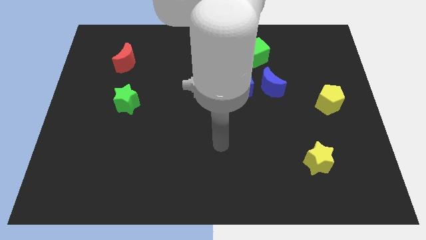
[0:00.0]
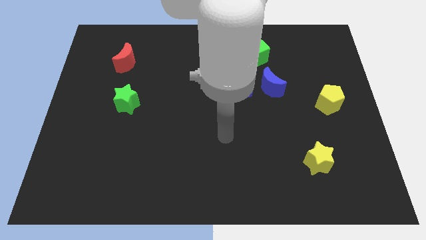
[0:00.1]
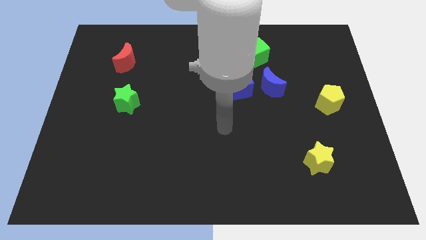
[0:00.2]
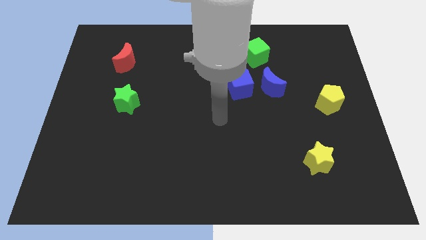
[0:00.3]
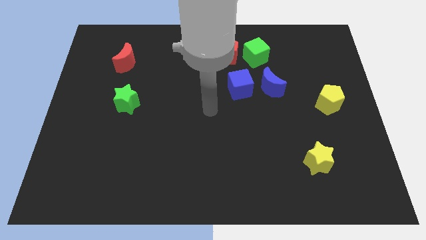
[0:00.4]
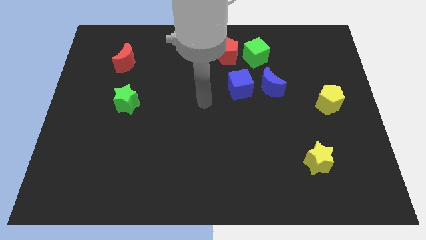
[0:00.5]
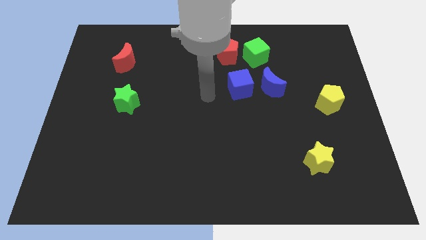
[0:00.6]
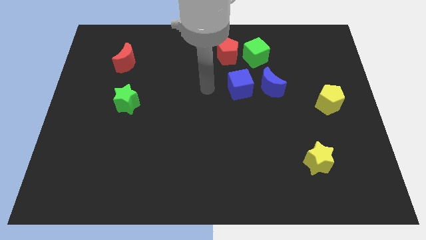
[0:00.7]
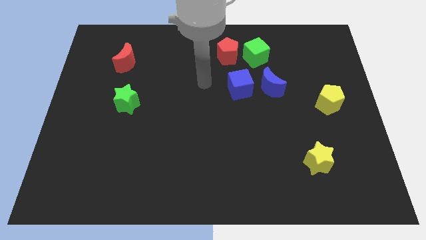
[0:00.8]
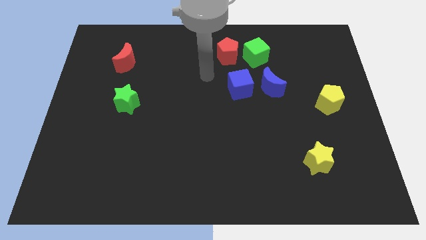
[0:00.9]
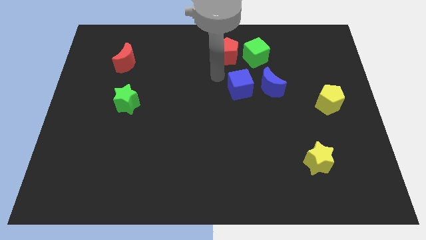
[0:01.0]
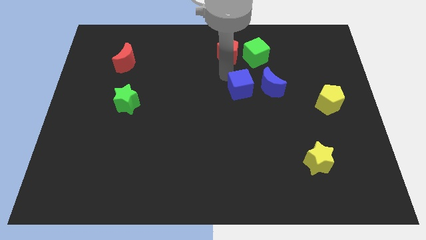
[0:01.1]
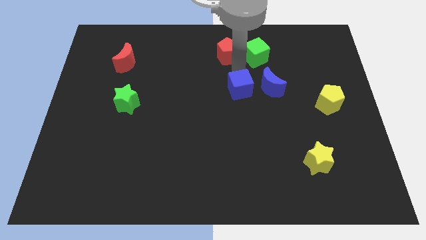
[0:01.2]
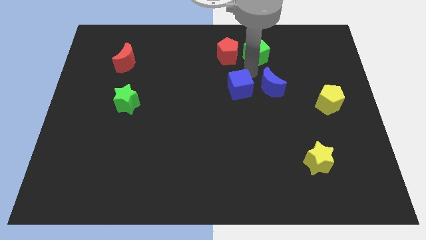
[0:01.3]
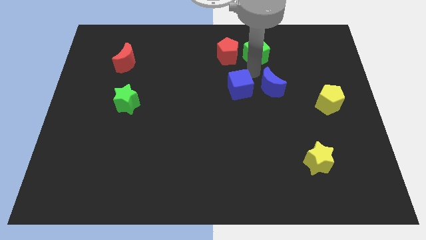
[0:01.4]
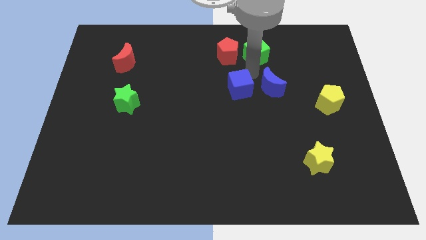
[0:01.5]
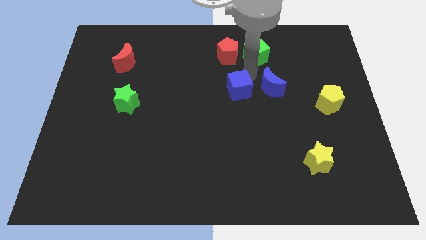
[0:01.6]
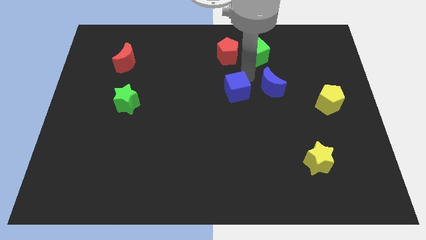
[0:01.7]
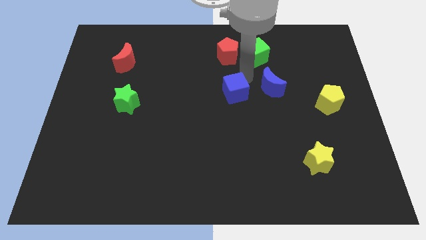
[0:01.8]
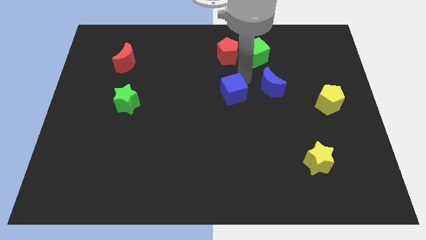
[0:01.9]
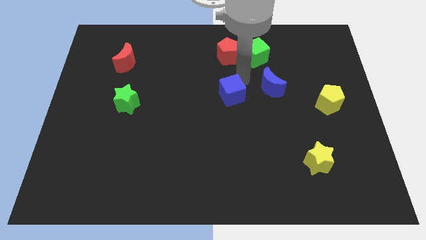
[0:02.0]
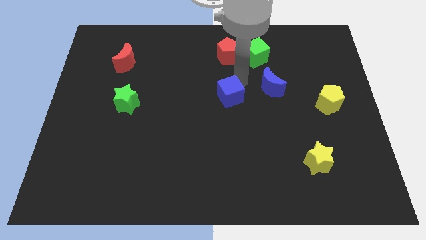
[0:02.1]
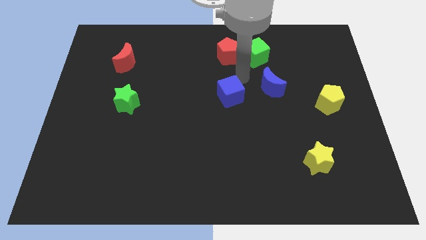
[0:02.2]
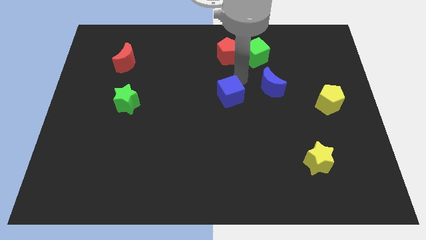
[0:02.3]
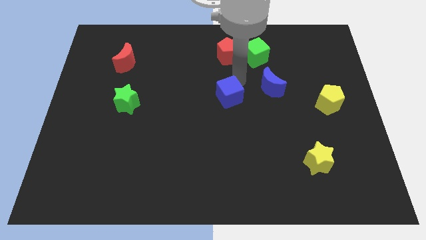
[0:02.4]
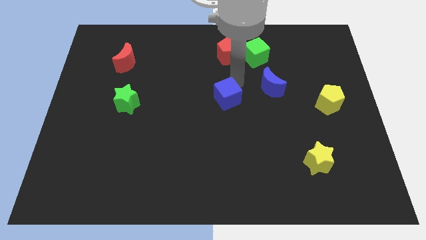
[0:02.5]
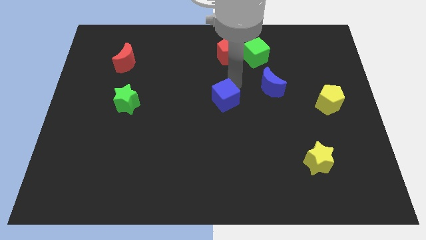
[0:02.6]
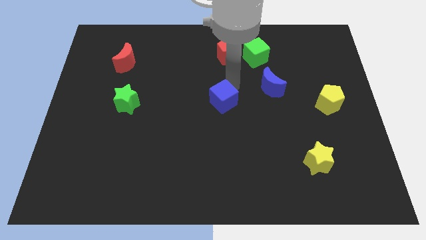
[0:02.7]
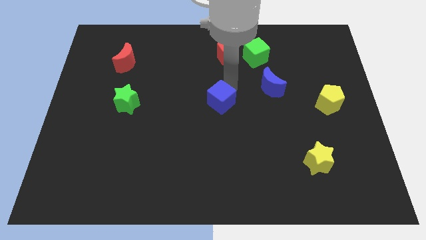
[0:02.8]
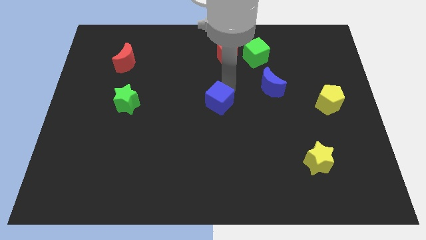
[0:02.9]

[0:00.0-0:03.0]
move the blue cube a little down and to the left

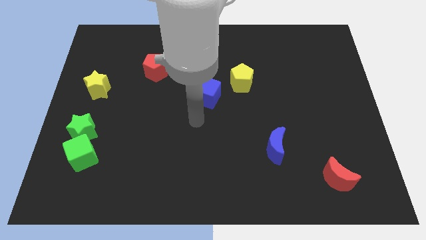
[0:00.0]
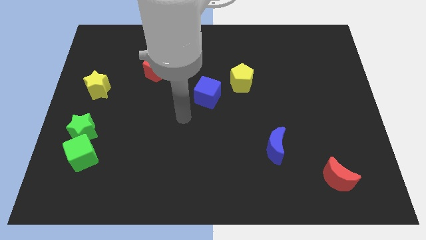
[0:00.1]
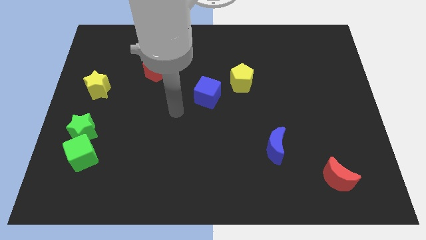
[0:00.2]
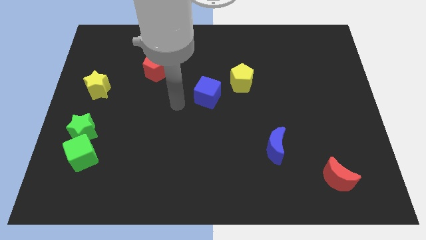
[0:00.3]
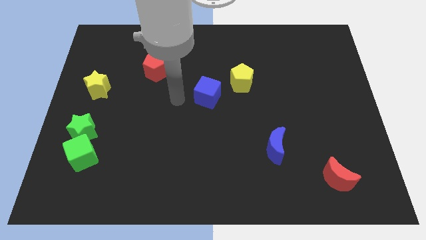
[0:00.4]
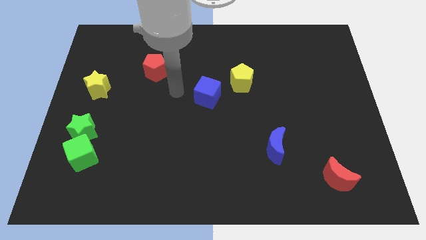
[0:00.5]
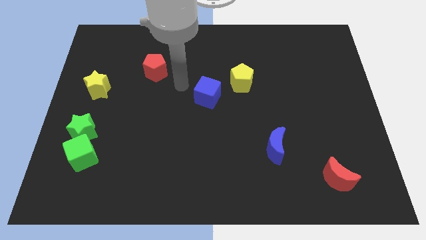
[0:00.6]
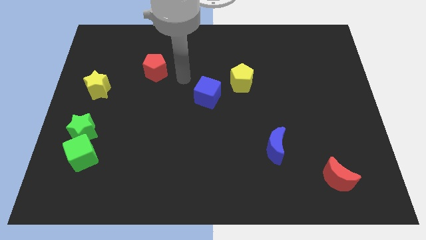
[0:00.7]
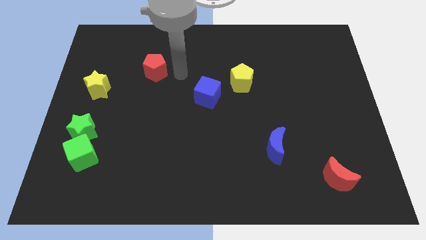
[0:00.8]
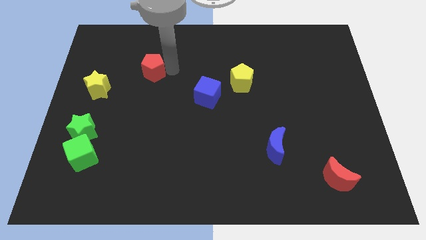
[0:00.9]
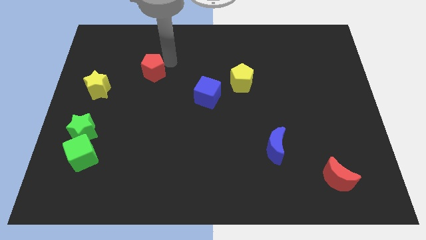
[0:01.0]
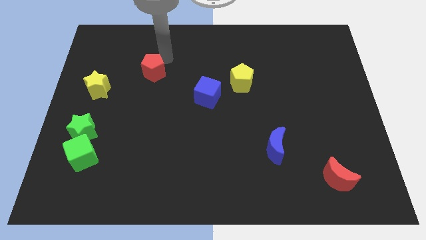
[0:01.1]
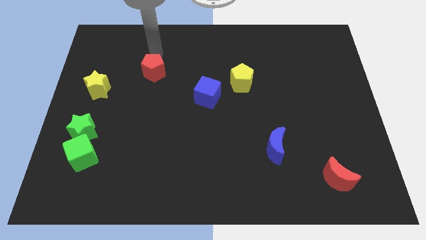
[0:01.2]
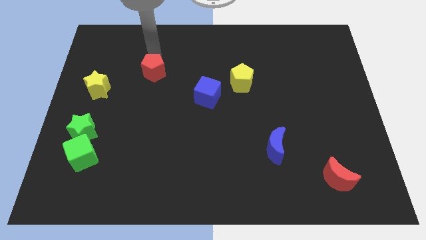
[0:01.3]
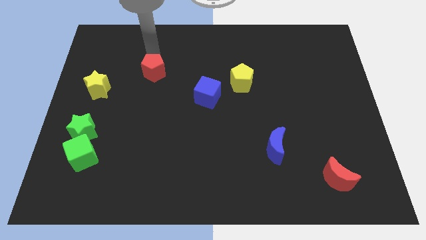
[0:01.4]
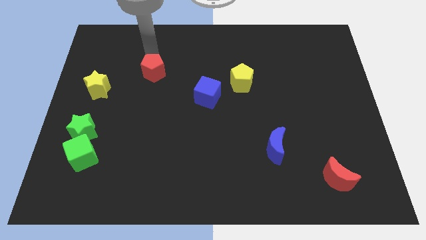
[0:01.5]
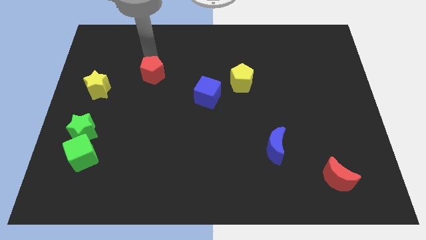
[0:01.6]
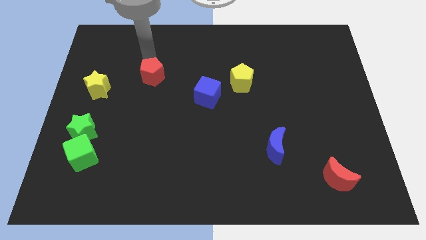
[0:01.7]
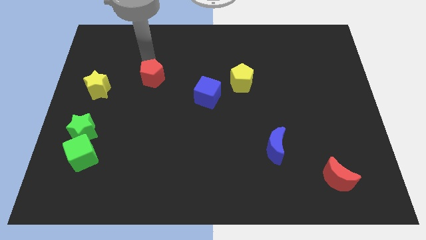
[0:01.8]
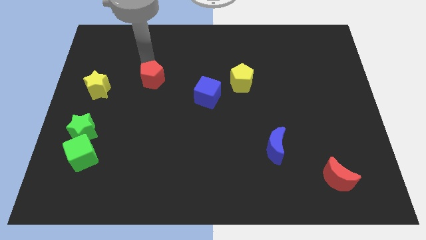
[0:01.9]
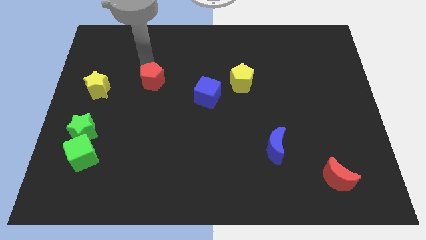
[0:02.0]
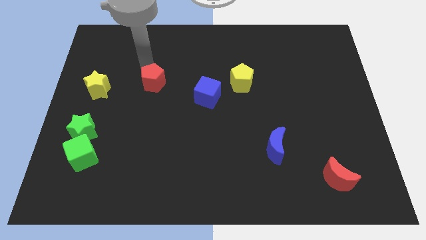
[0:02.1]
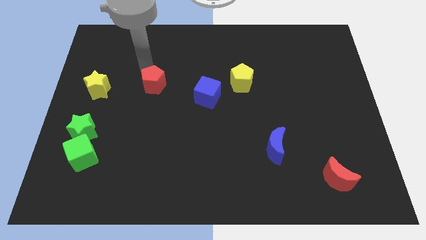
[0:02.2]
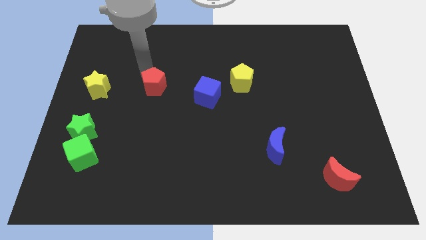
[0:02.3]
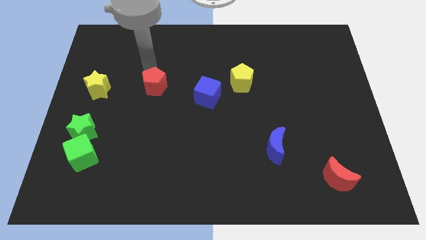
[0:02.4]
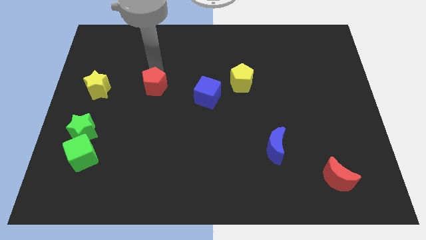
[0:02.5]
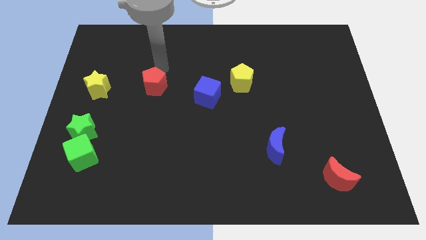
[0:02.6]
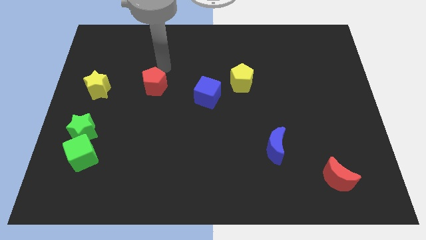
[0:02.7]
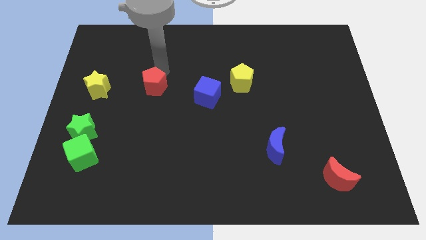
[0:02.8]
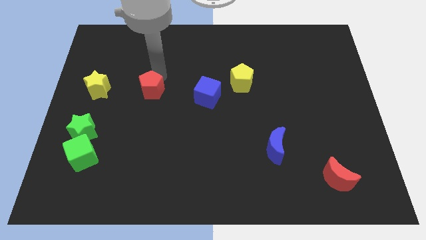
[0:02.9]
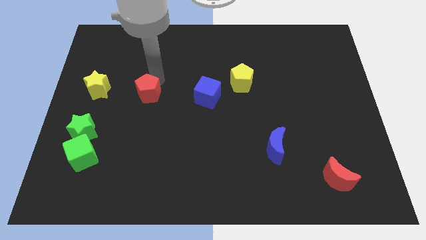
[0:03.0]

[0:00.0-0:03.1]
move the red pentagon down a bit

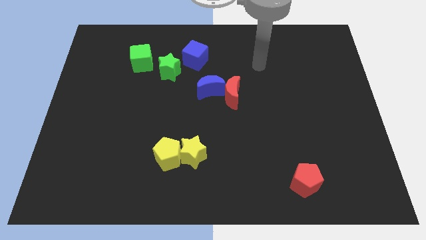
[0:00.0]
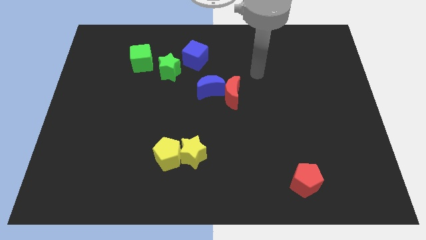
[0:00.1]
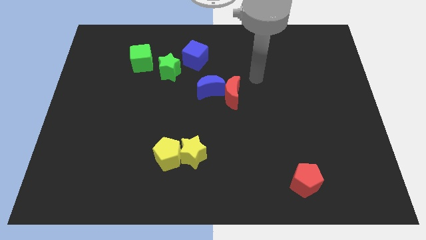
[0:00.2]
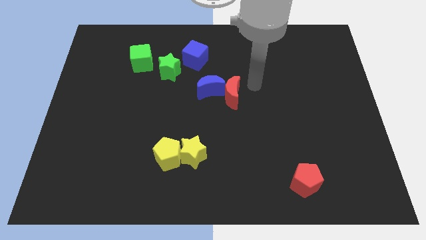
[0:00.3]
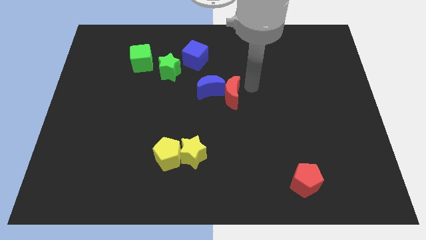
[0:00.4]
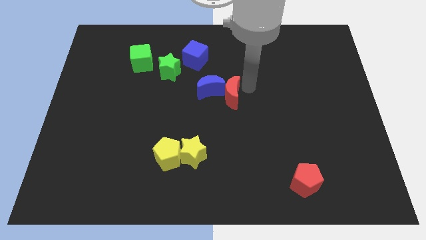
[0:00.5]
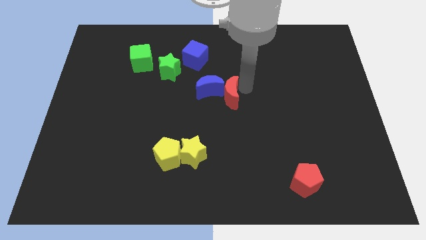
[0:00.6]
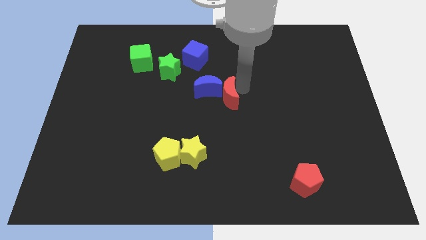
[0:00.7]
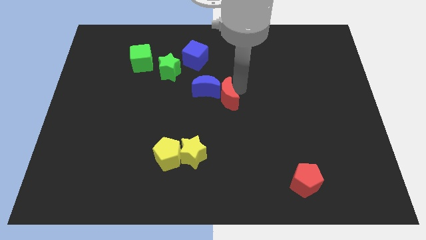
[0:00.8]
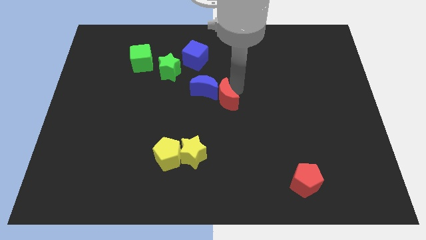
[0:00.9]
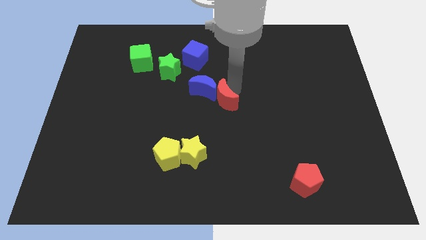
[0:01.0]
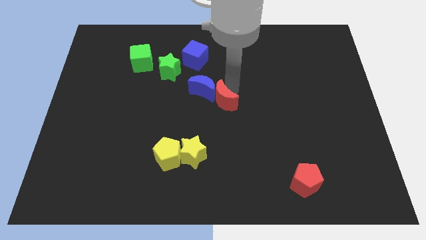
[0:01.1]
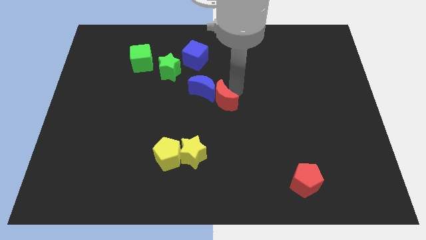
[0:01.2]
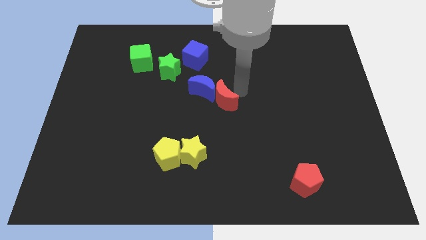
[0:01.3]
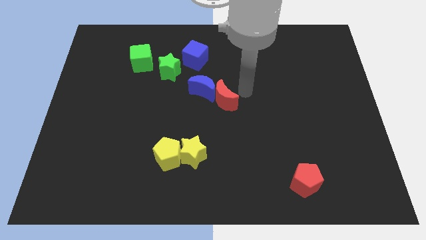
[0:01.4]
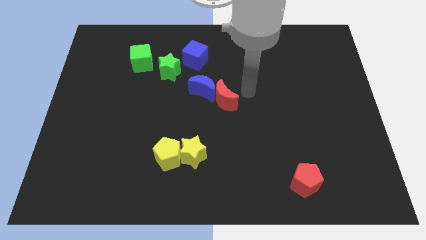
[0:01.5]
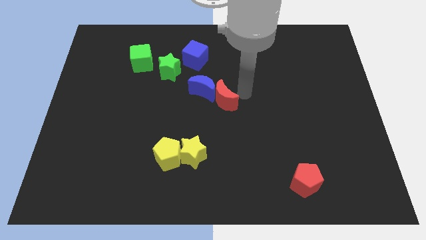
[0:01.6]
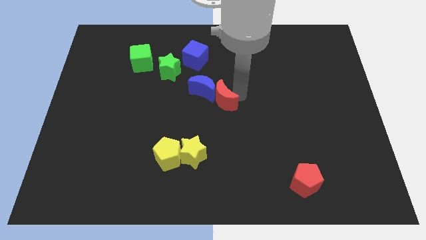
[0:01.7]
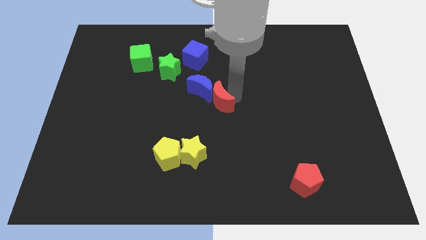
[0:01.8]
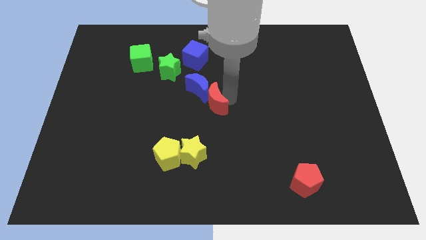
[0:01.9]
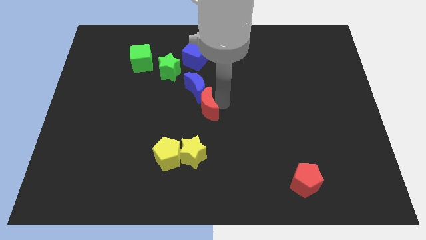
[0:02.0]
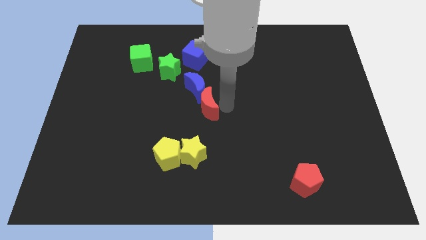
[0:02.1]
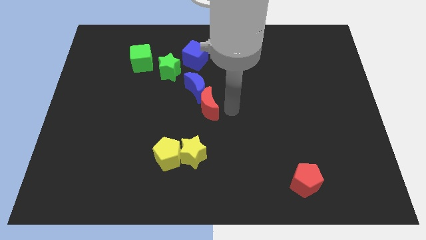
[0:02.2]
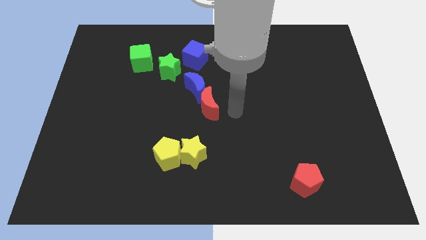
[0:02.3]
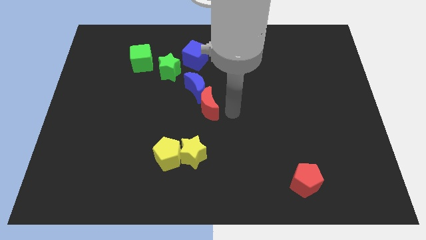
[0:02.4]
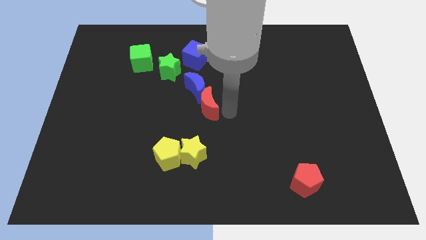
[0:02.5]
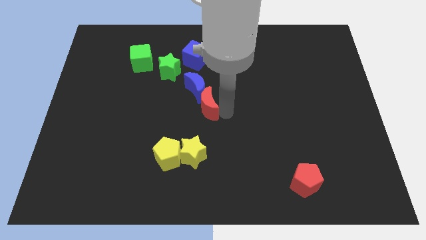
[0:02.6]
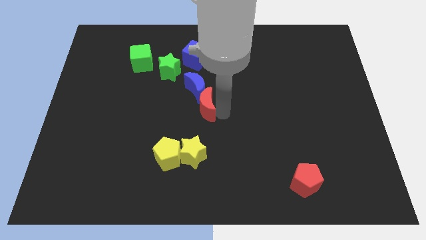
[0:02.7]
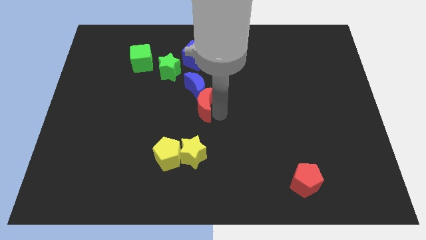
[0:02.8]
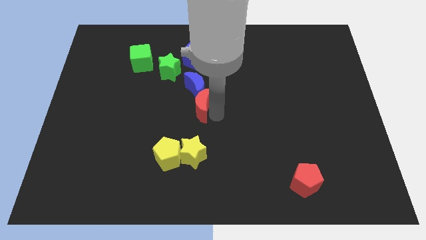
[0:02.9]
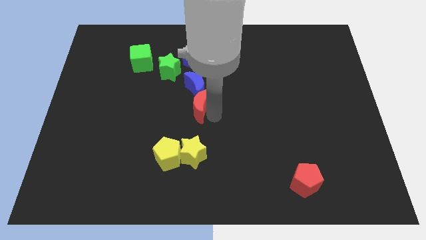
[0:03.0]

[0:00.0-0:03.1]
push the red moon to the left somewhat
